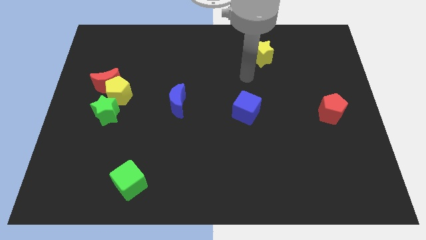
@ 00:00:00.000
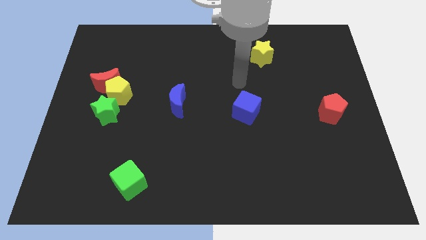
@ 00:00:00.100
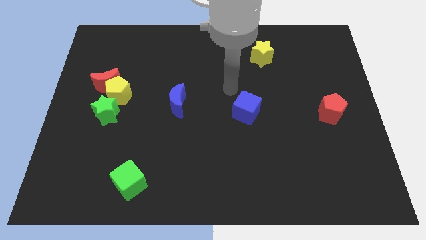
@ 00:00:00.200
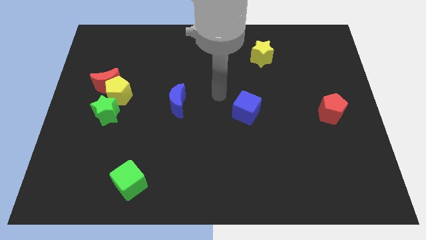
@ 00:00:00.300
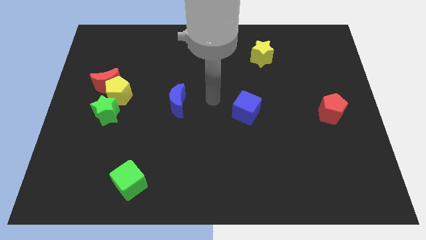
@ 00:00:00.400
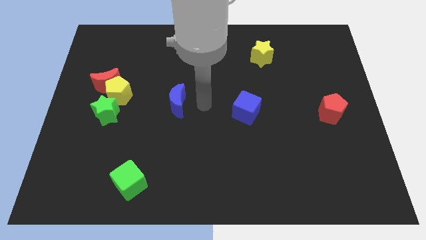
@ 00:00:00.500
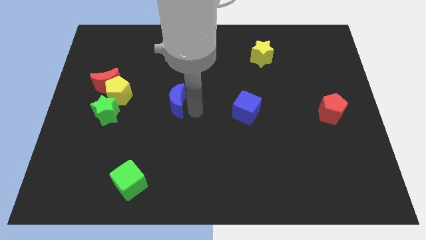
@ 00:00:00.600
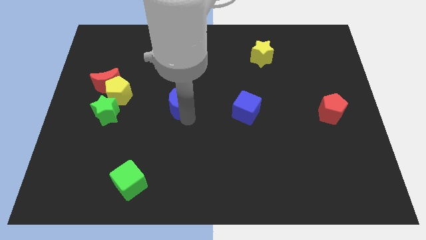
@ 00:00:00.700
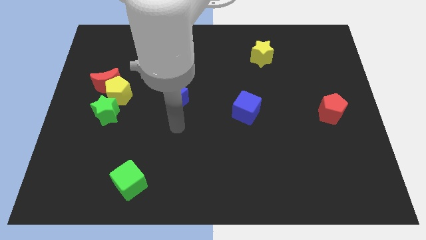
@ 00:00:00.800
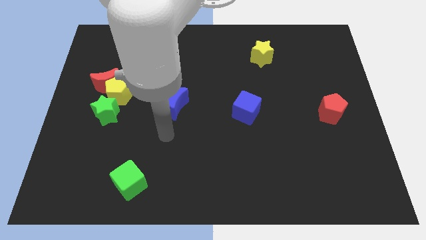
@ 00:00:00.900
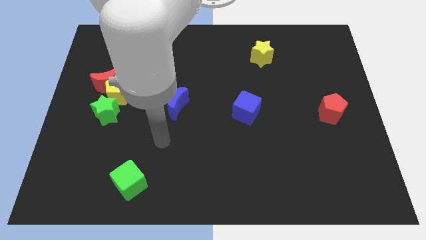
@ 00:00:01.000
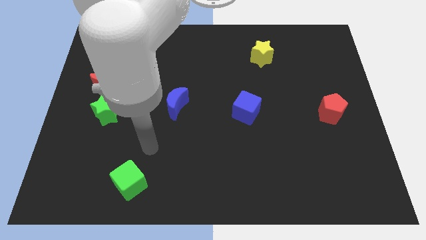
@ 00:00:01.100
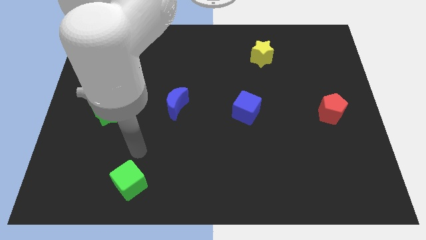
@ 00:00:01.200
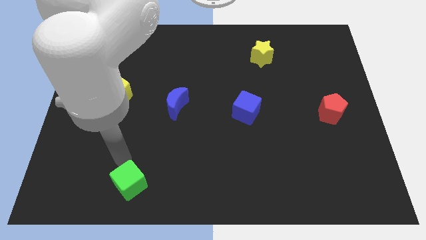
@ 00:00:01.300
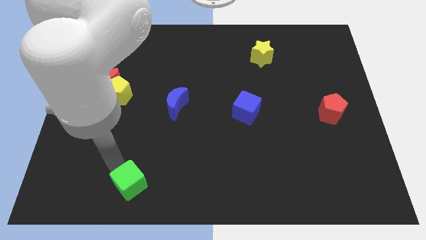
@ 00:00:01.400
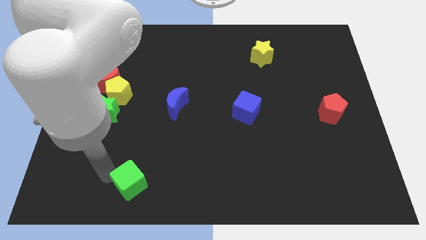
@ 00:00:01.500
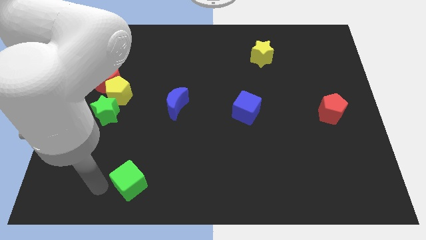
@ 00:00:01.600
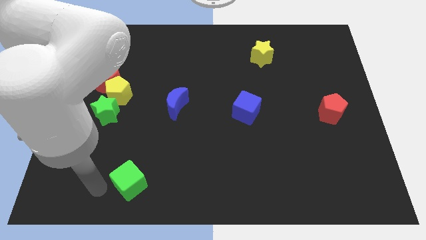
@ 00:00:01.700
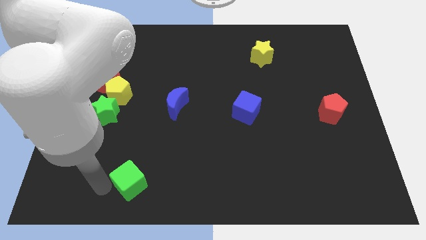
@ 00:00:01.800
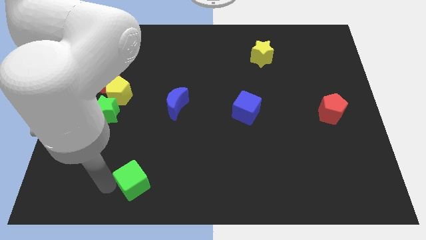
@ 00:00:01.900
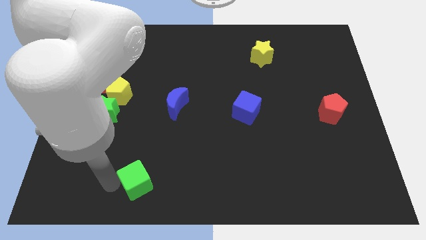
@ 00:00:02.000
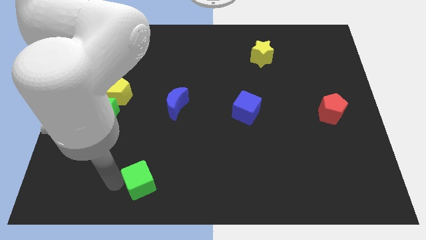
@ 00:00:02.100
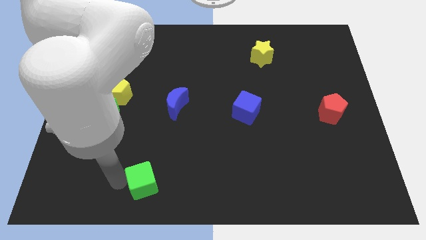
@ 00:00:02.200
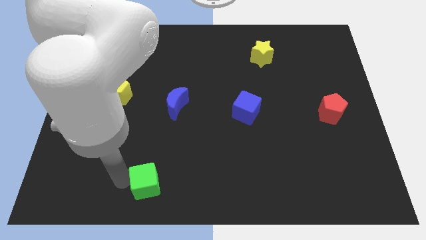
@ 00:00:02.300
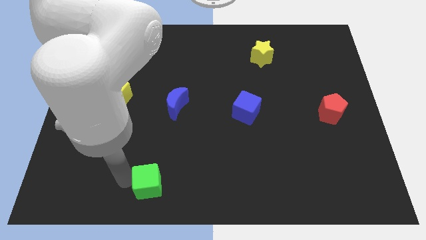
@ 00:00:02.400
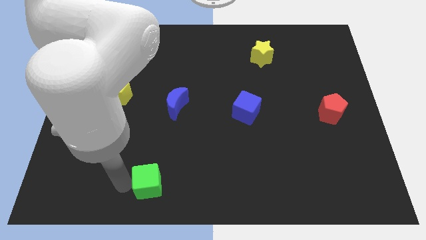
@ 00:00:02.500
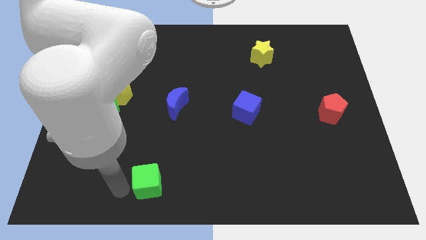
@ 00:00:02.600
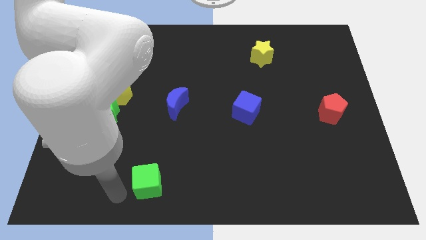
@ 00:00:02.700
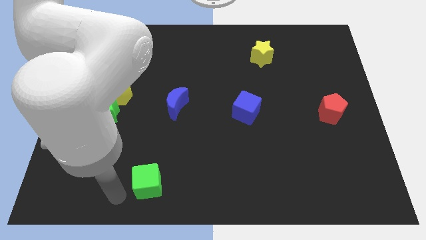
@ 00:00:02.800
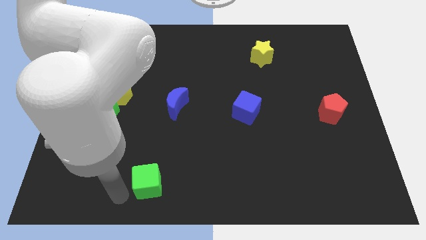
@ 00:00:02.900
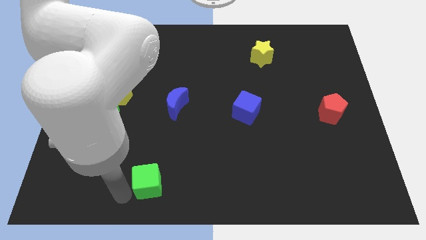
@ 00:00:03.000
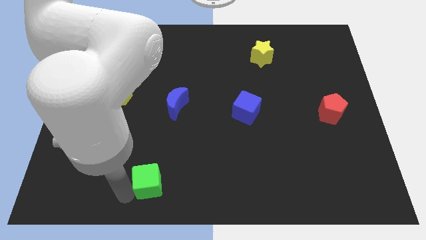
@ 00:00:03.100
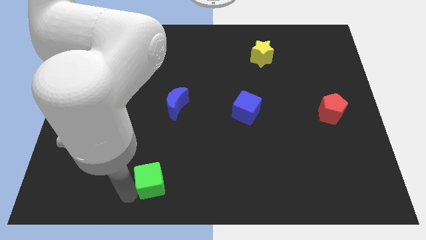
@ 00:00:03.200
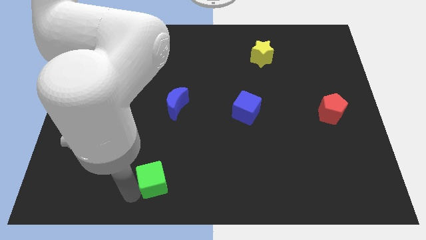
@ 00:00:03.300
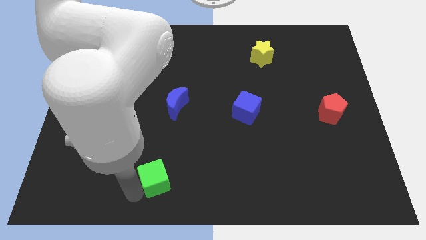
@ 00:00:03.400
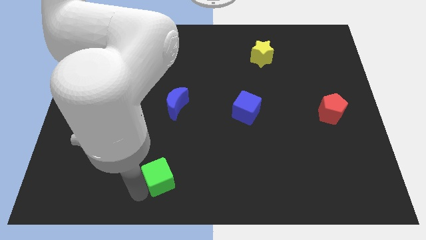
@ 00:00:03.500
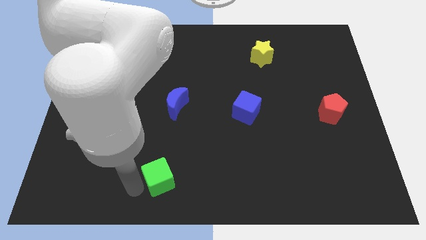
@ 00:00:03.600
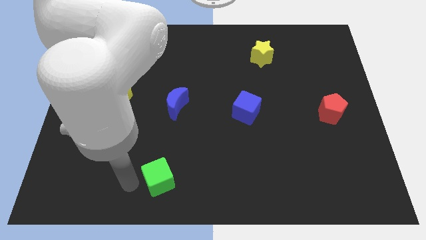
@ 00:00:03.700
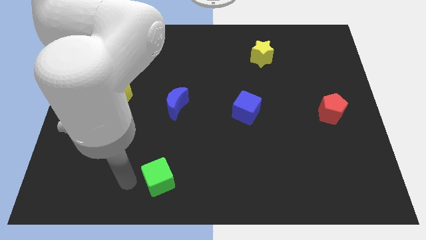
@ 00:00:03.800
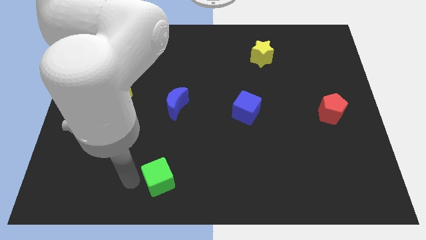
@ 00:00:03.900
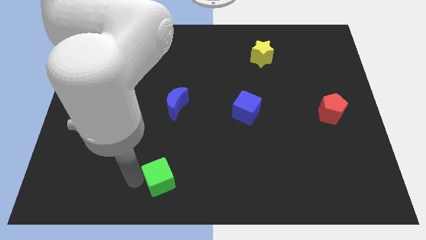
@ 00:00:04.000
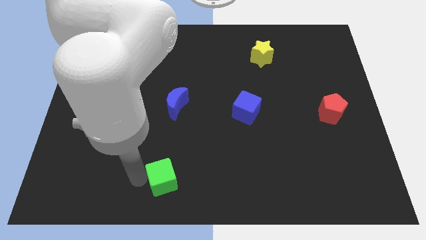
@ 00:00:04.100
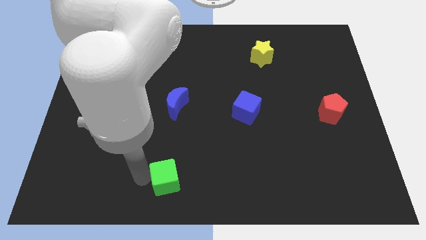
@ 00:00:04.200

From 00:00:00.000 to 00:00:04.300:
slightly slide the green cube right

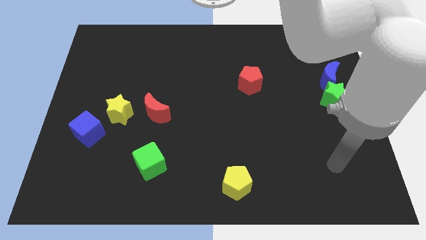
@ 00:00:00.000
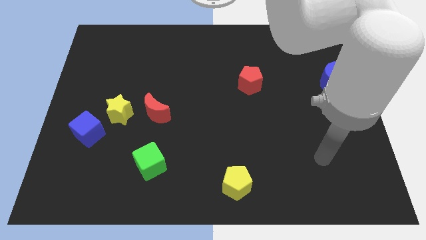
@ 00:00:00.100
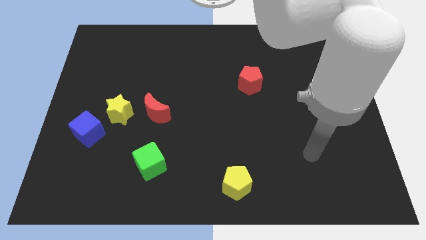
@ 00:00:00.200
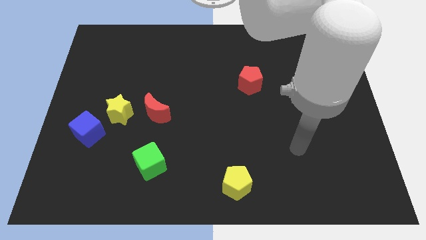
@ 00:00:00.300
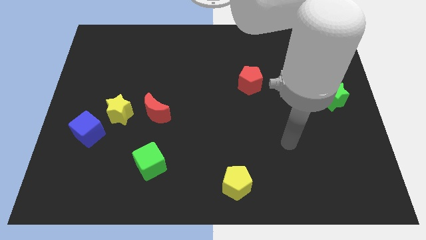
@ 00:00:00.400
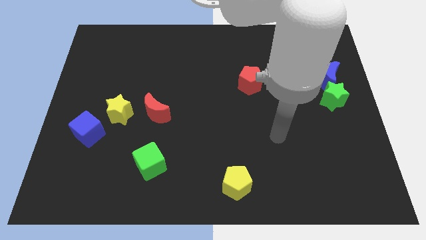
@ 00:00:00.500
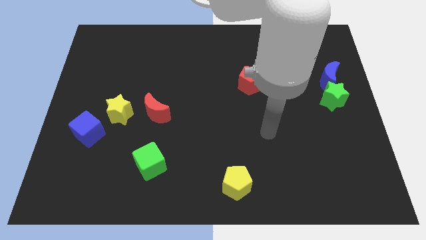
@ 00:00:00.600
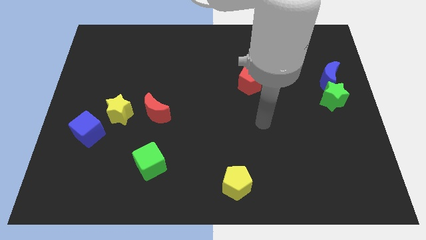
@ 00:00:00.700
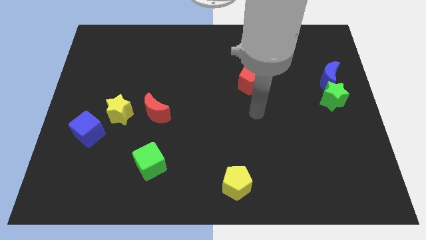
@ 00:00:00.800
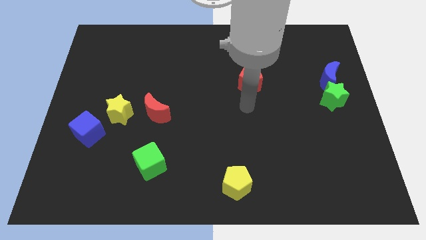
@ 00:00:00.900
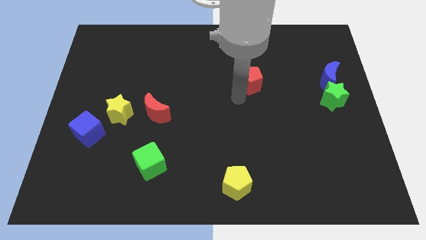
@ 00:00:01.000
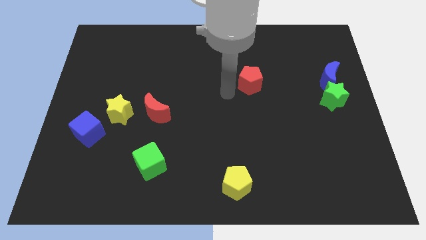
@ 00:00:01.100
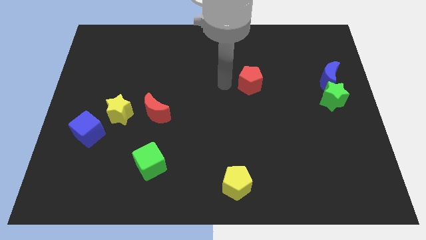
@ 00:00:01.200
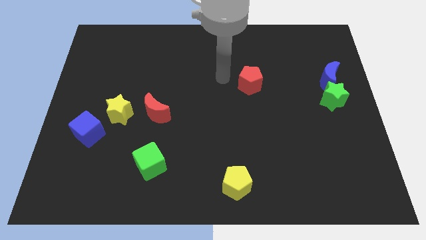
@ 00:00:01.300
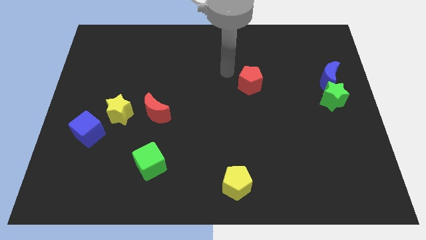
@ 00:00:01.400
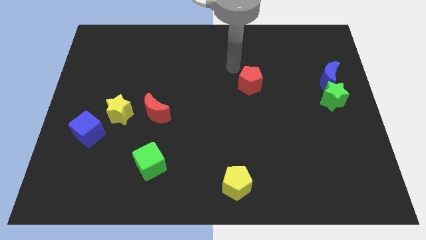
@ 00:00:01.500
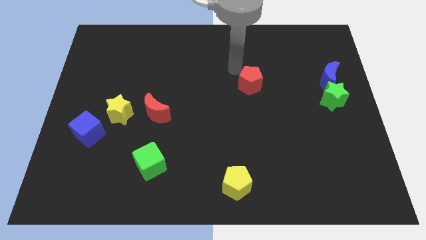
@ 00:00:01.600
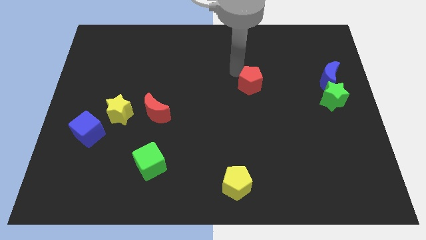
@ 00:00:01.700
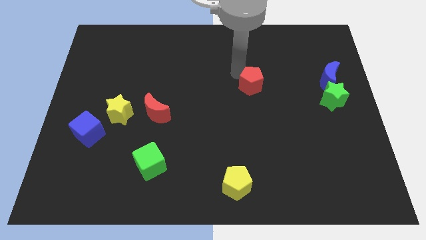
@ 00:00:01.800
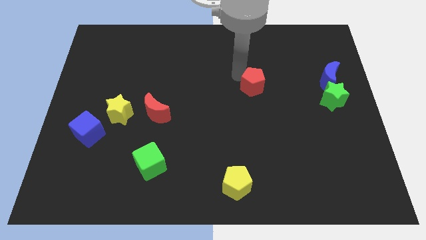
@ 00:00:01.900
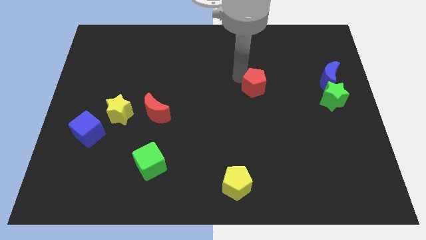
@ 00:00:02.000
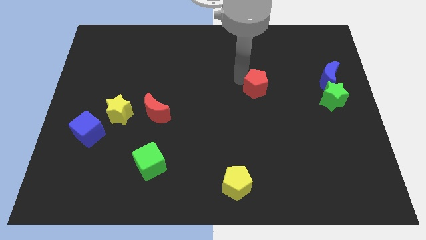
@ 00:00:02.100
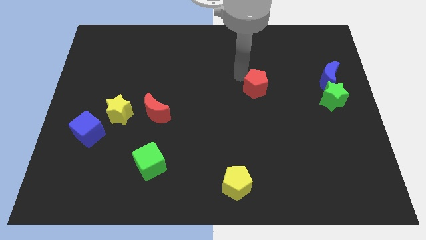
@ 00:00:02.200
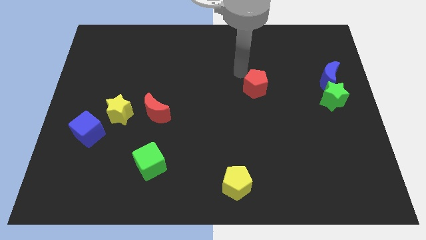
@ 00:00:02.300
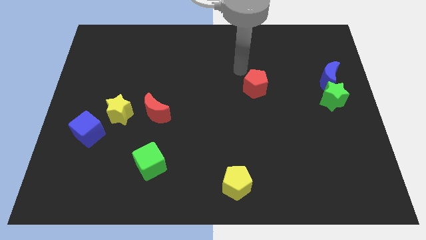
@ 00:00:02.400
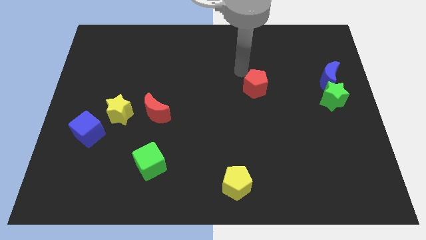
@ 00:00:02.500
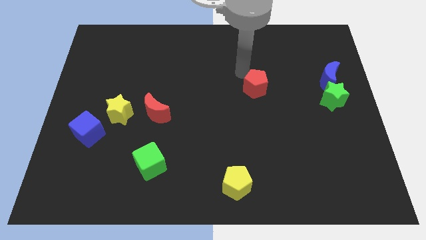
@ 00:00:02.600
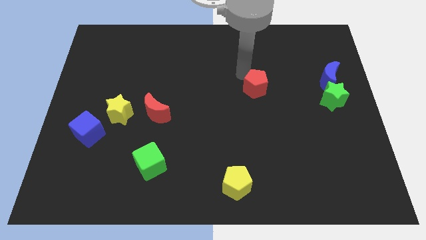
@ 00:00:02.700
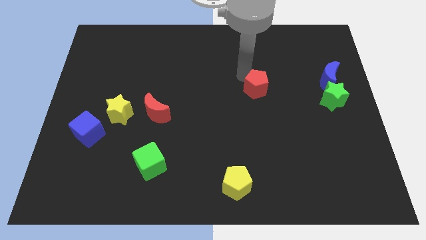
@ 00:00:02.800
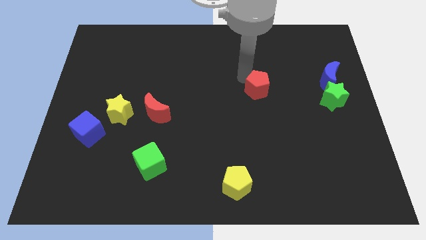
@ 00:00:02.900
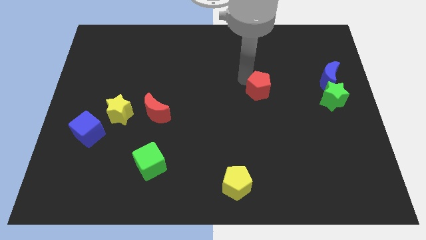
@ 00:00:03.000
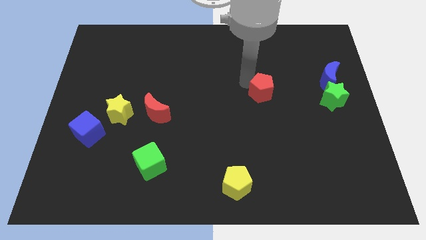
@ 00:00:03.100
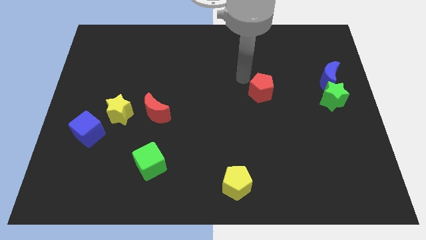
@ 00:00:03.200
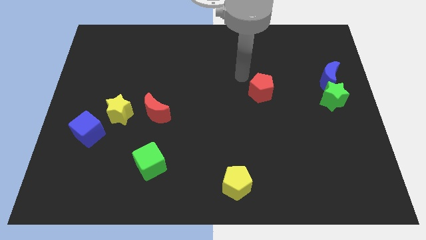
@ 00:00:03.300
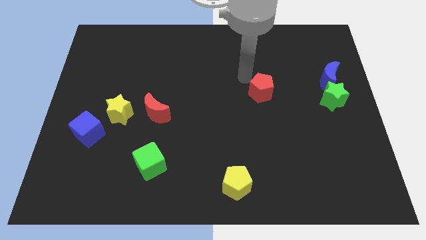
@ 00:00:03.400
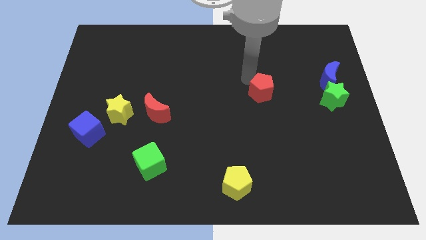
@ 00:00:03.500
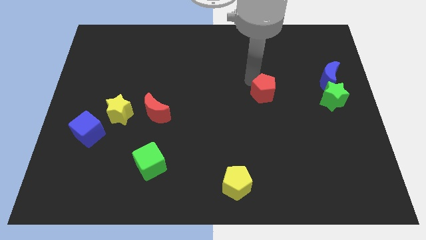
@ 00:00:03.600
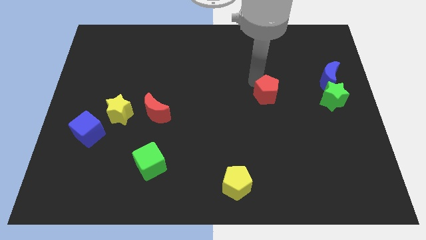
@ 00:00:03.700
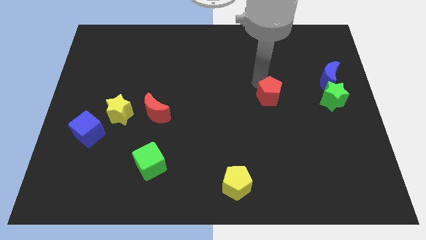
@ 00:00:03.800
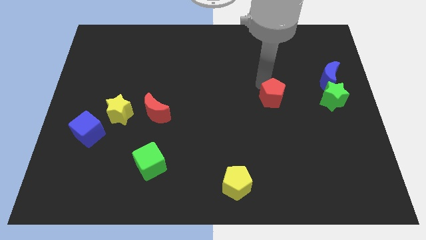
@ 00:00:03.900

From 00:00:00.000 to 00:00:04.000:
slightly slide the red pentagon downwards and then to the right

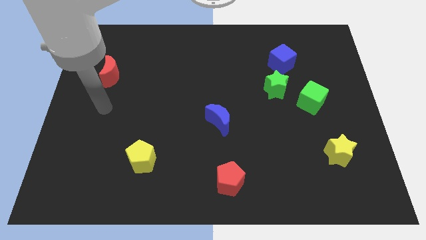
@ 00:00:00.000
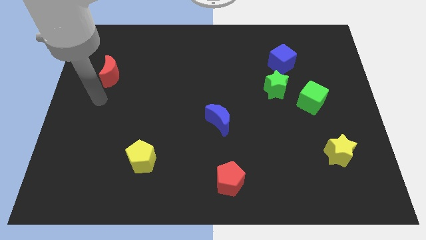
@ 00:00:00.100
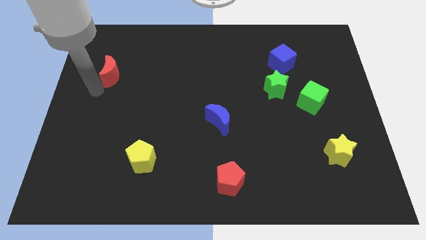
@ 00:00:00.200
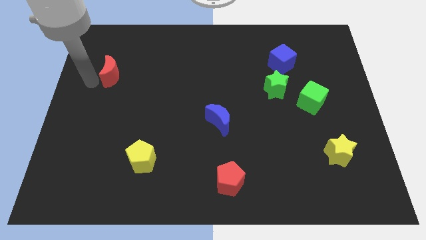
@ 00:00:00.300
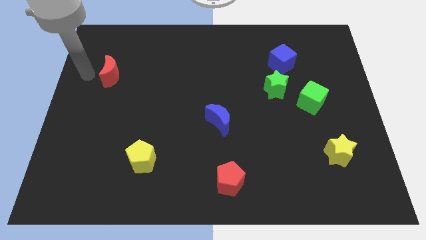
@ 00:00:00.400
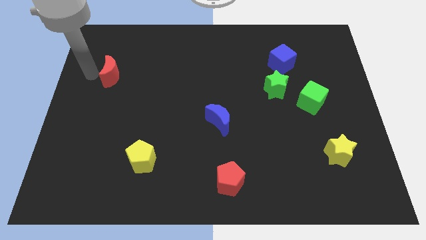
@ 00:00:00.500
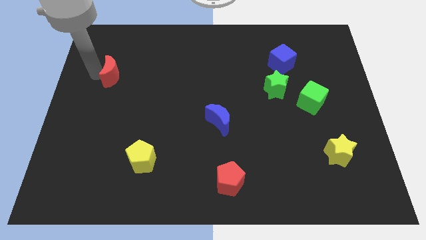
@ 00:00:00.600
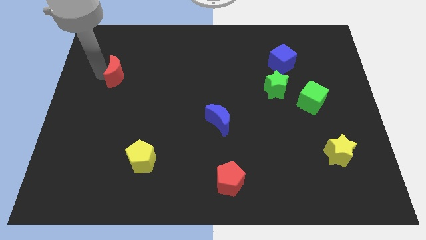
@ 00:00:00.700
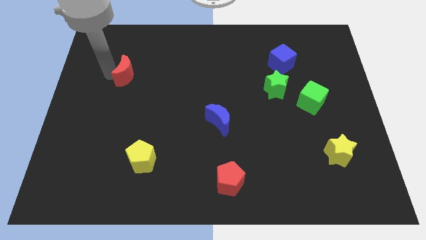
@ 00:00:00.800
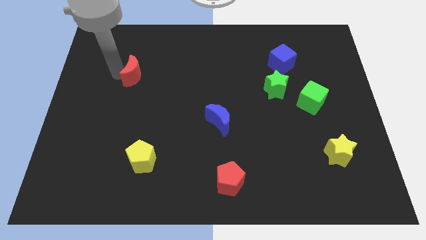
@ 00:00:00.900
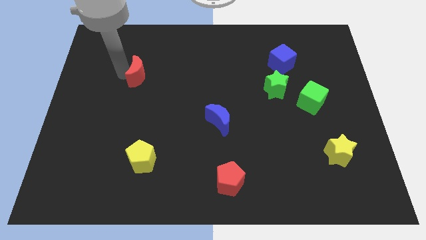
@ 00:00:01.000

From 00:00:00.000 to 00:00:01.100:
move the red moon right somewhat
